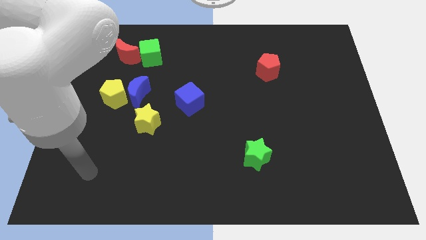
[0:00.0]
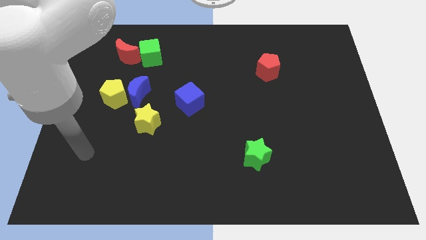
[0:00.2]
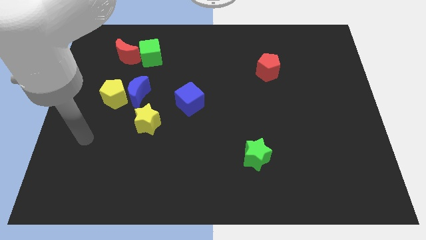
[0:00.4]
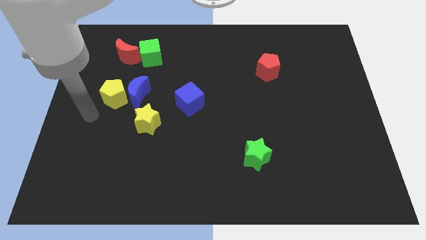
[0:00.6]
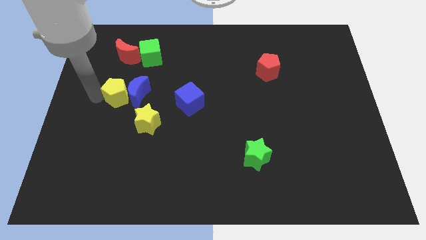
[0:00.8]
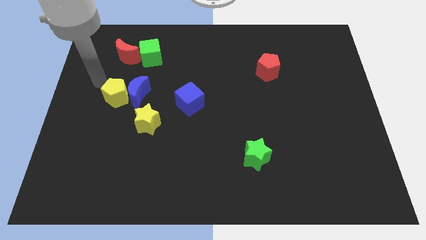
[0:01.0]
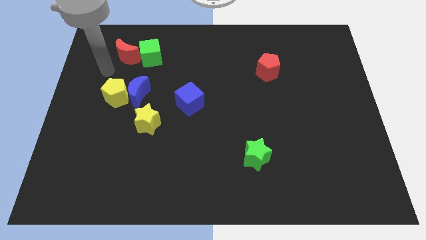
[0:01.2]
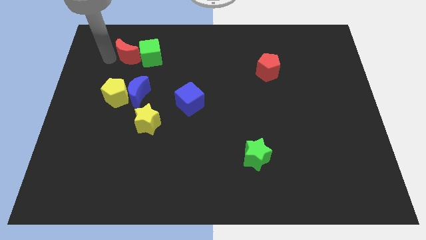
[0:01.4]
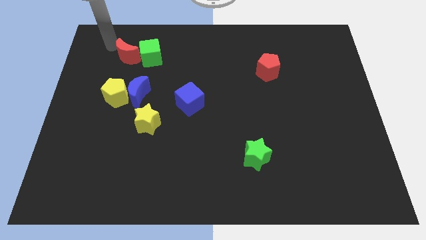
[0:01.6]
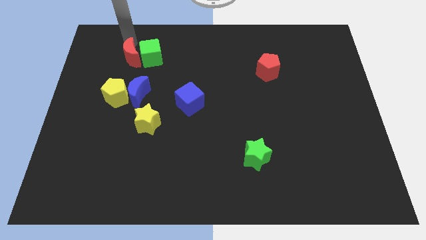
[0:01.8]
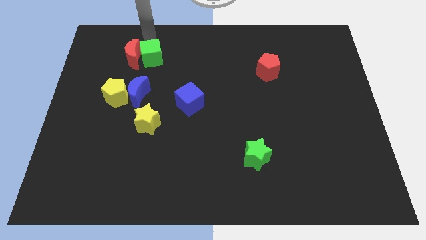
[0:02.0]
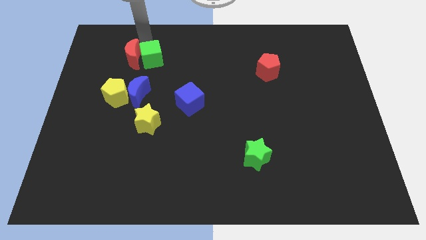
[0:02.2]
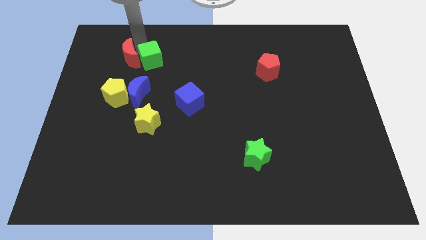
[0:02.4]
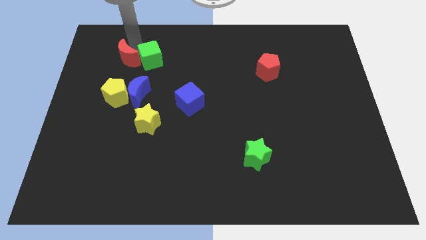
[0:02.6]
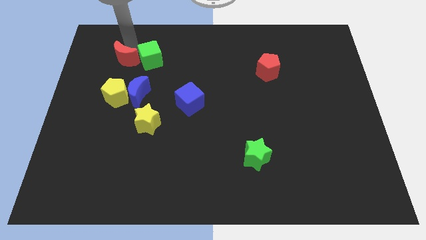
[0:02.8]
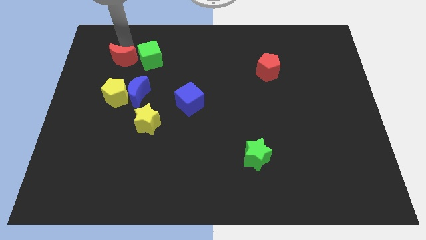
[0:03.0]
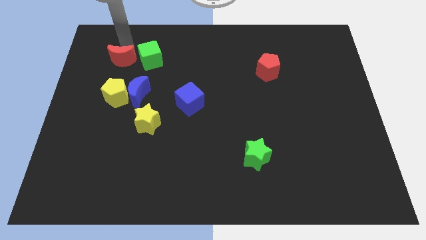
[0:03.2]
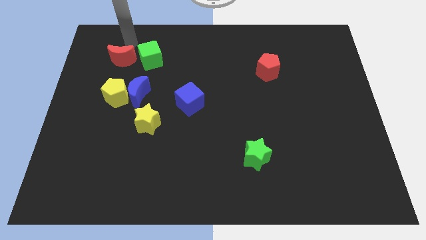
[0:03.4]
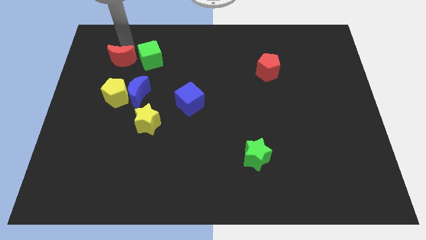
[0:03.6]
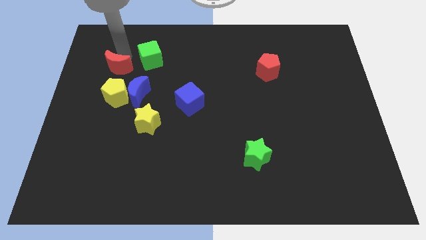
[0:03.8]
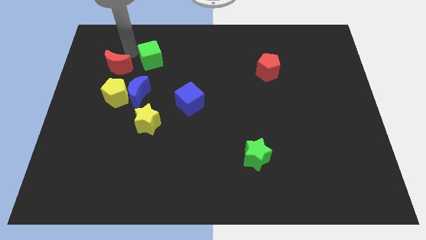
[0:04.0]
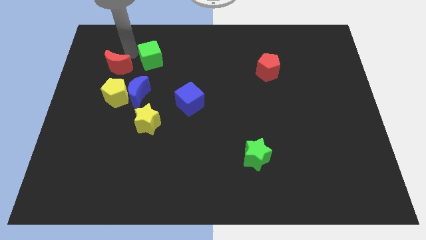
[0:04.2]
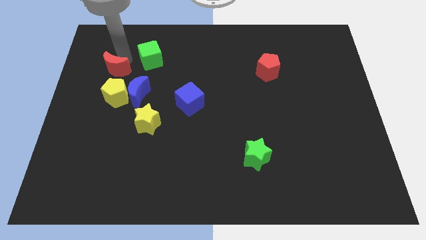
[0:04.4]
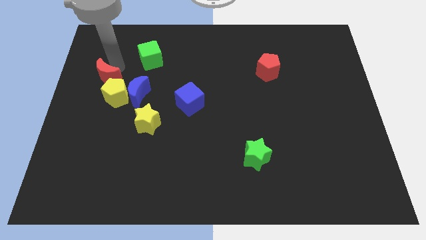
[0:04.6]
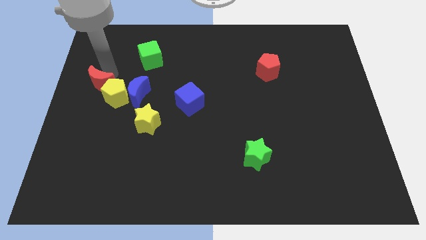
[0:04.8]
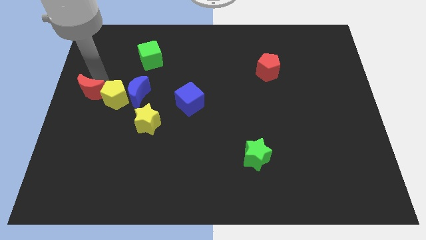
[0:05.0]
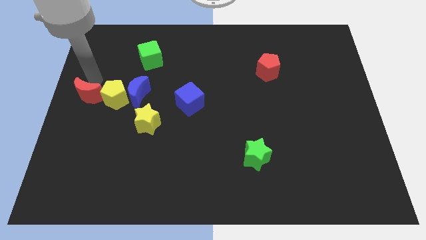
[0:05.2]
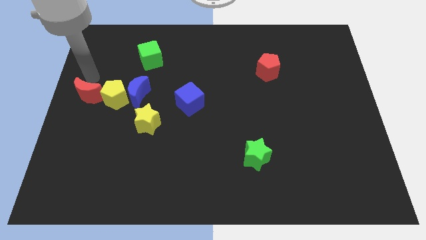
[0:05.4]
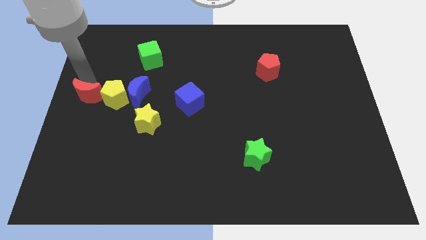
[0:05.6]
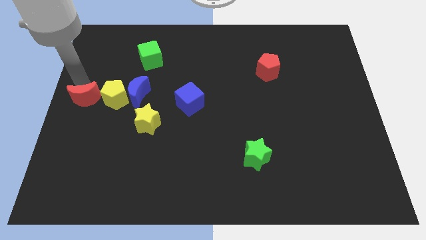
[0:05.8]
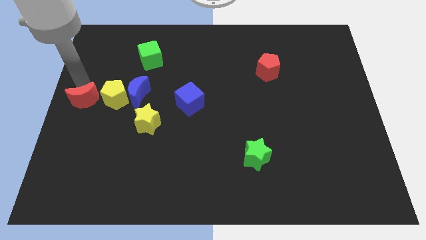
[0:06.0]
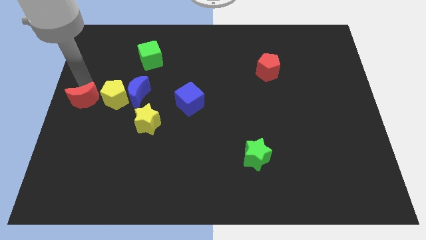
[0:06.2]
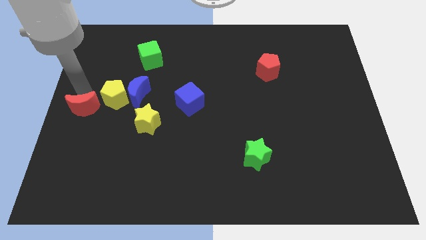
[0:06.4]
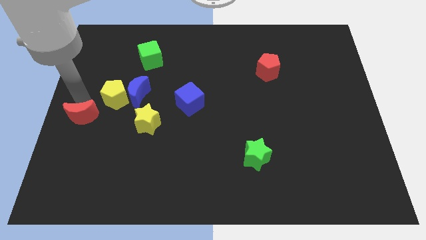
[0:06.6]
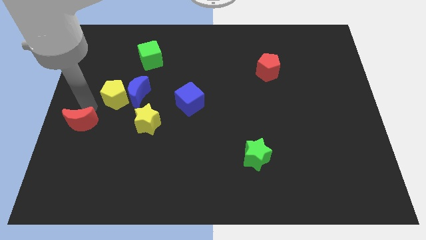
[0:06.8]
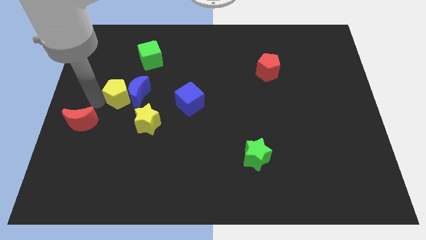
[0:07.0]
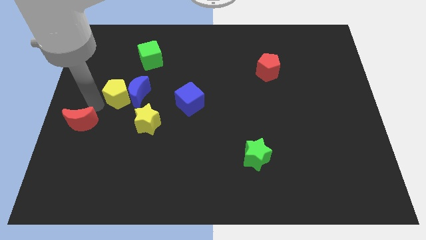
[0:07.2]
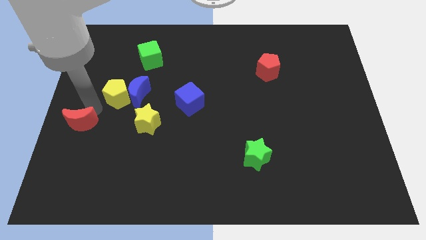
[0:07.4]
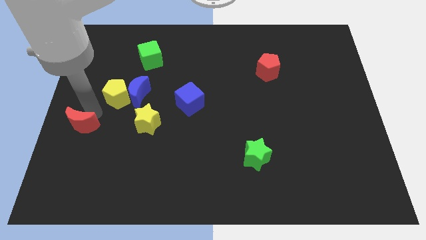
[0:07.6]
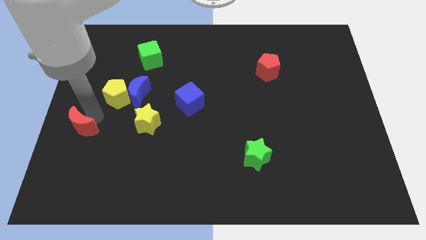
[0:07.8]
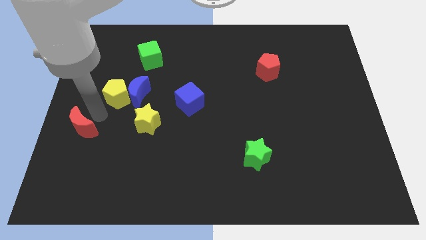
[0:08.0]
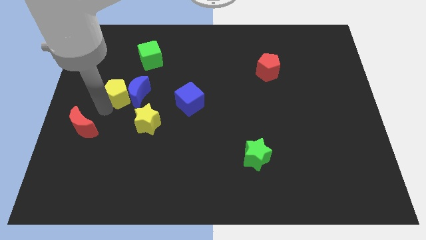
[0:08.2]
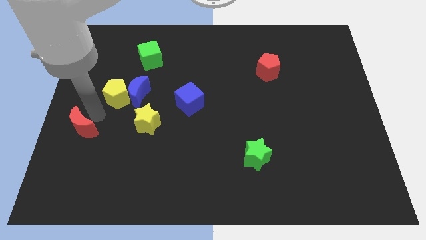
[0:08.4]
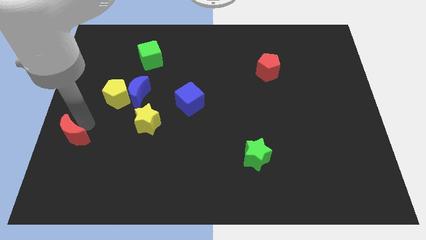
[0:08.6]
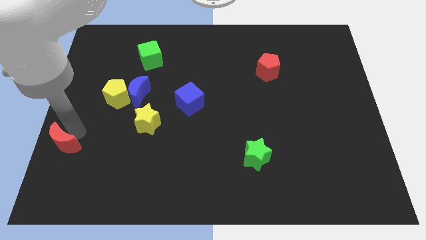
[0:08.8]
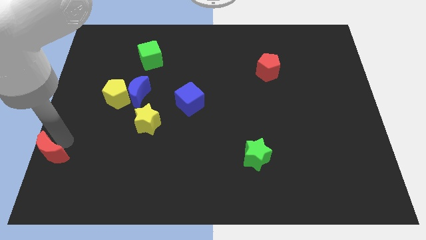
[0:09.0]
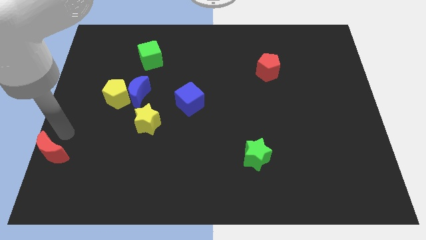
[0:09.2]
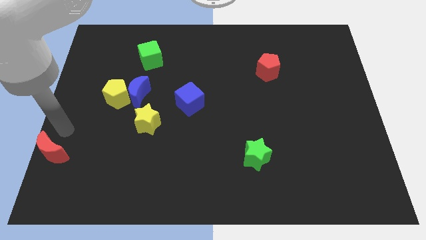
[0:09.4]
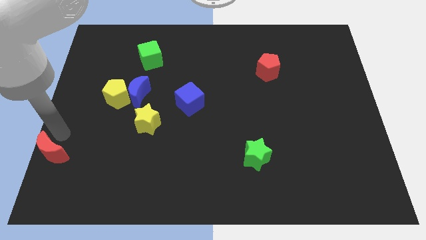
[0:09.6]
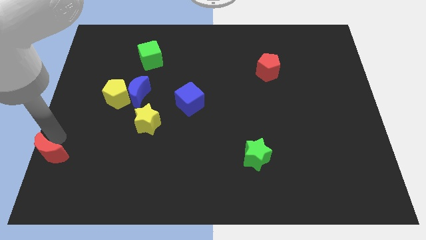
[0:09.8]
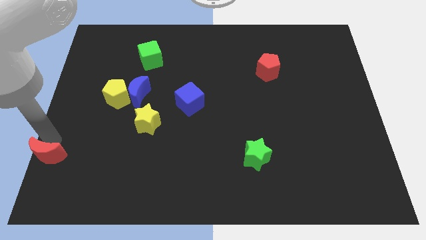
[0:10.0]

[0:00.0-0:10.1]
slide the red moon to the bottom left

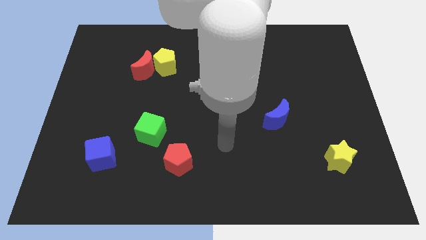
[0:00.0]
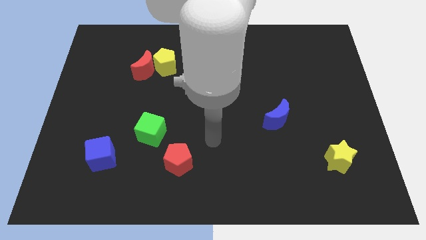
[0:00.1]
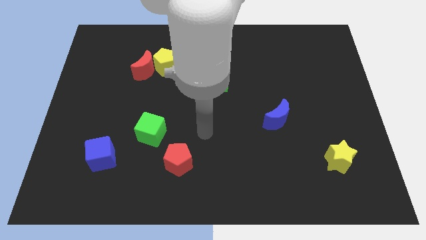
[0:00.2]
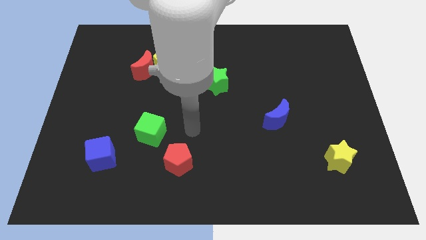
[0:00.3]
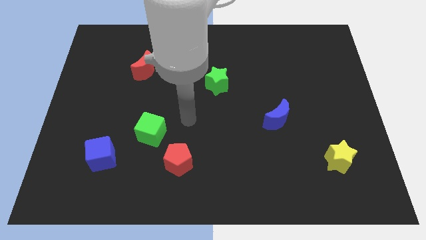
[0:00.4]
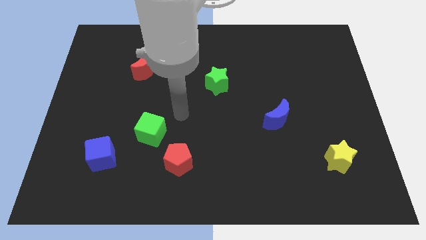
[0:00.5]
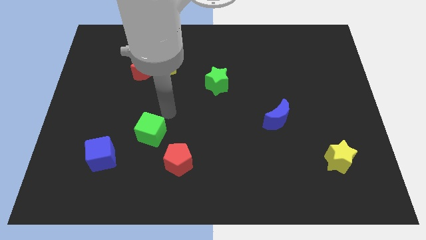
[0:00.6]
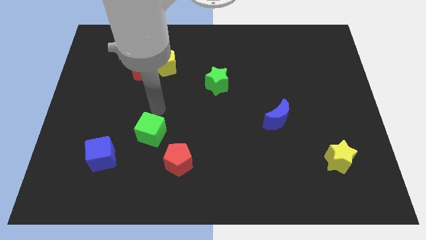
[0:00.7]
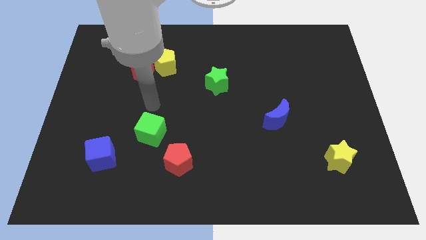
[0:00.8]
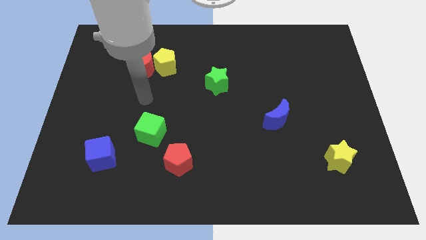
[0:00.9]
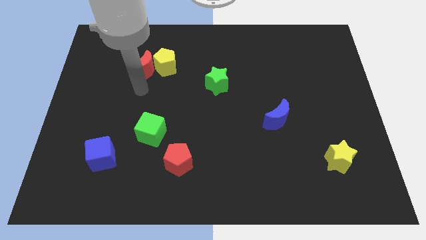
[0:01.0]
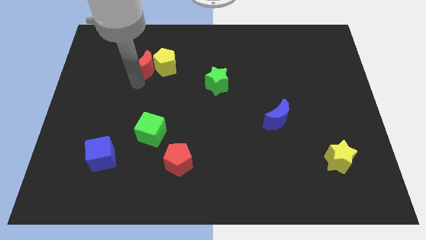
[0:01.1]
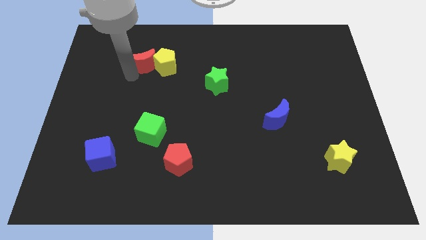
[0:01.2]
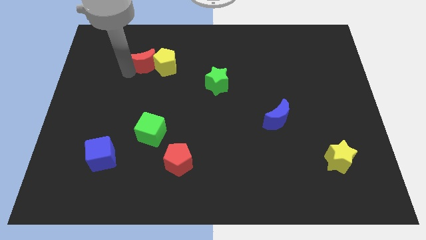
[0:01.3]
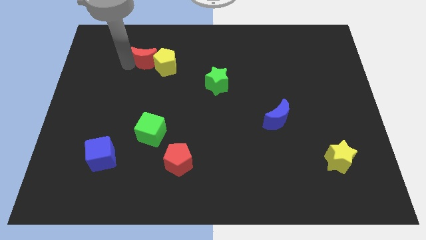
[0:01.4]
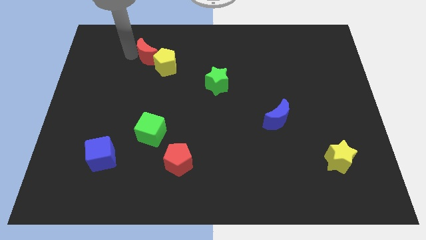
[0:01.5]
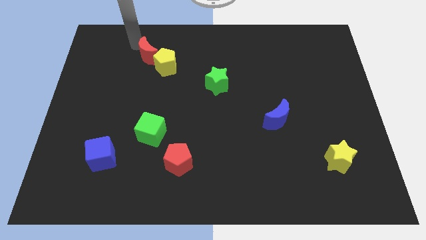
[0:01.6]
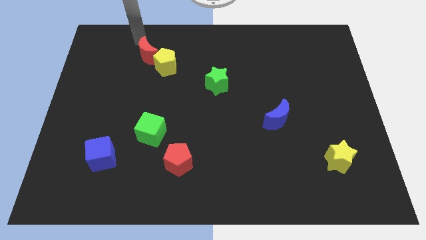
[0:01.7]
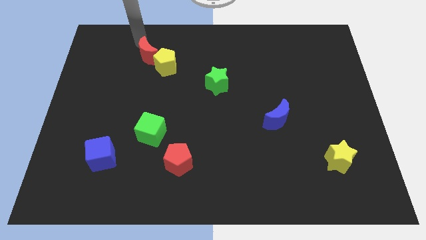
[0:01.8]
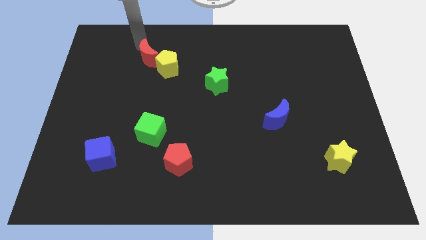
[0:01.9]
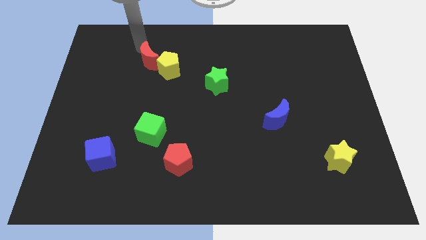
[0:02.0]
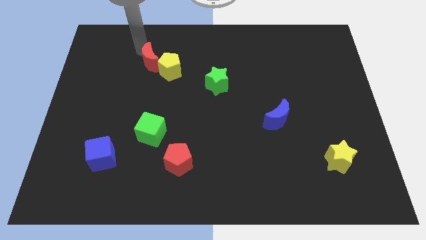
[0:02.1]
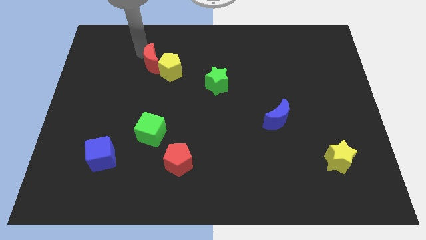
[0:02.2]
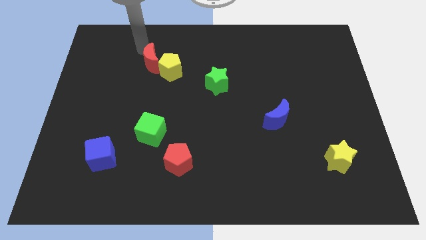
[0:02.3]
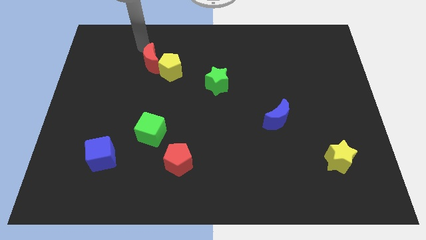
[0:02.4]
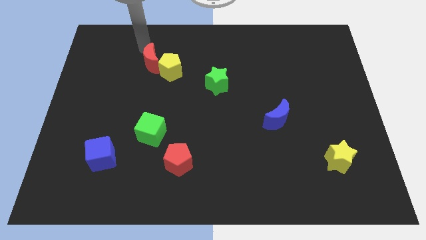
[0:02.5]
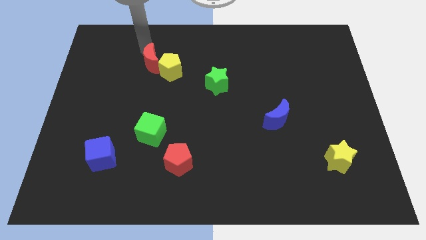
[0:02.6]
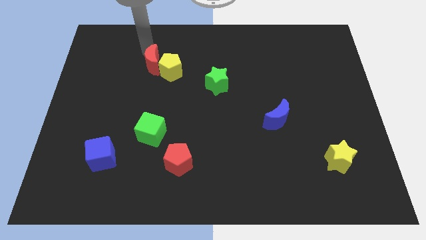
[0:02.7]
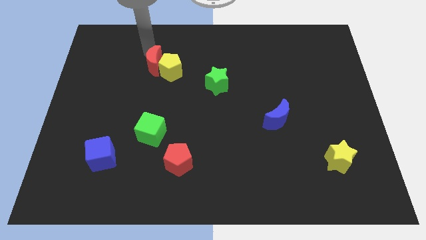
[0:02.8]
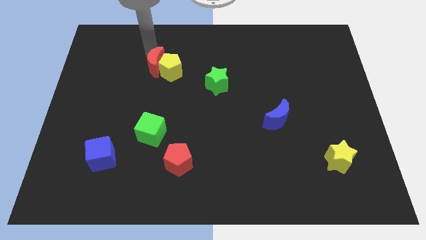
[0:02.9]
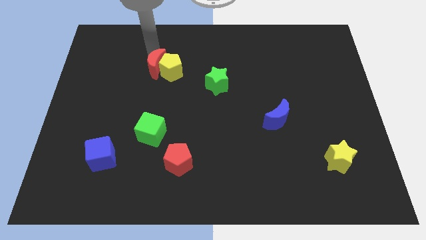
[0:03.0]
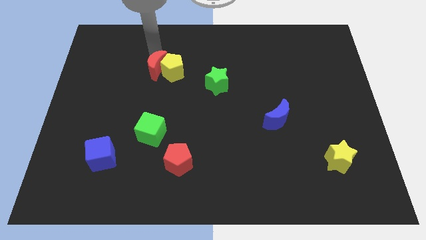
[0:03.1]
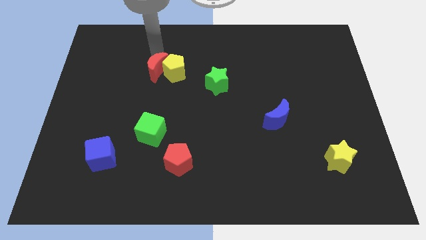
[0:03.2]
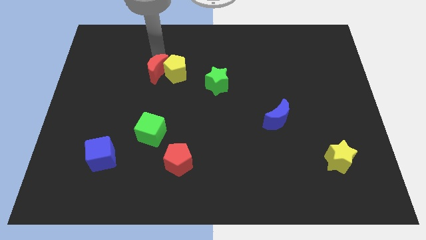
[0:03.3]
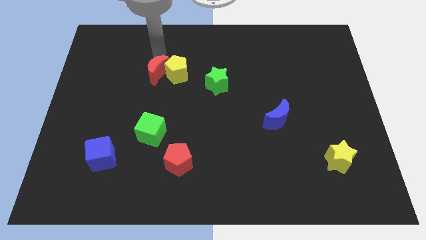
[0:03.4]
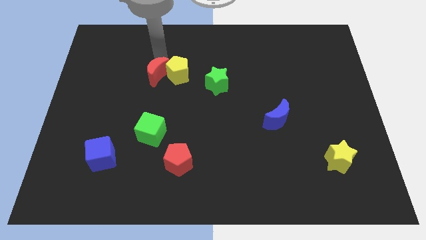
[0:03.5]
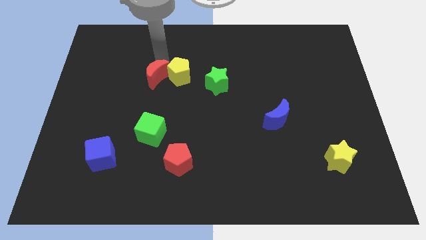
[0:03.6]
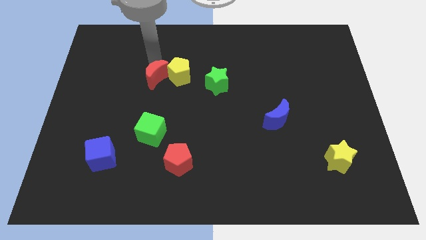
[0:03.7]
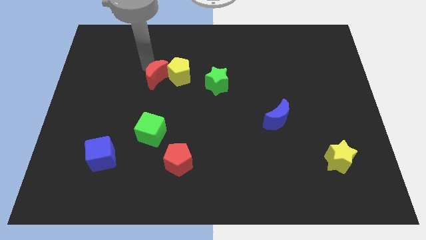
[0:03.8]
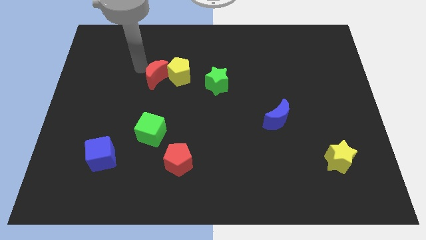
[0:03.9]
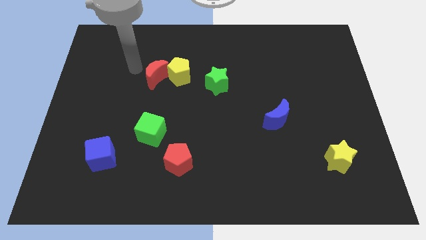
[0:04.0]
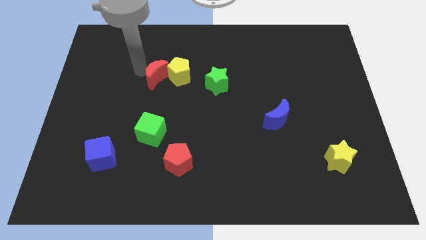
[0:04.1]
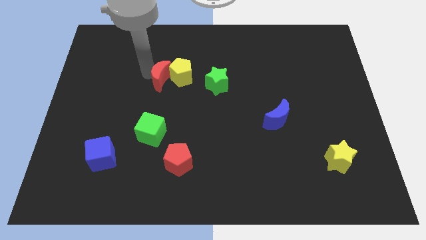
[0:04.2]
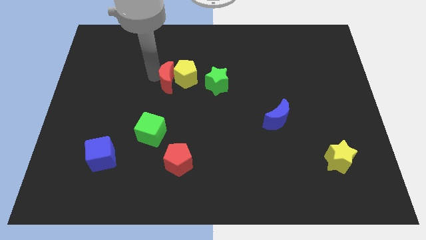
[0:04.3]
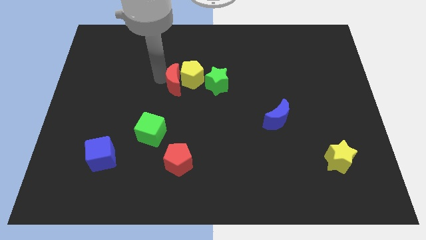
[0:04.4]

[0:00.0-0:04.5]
move the red moon to the middle of the board
